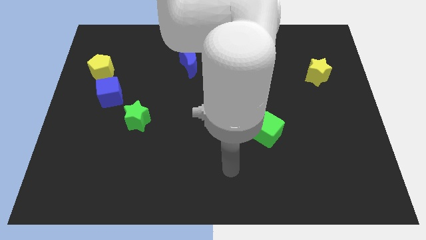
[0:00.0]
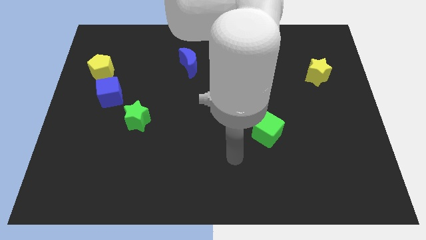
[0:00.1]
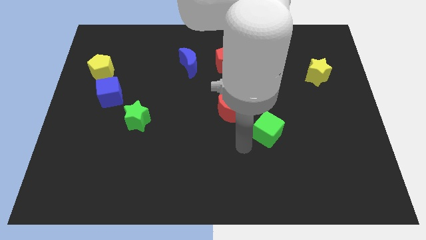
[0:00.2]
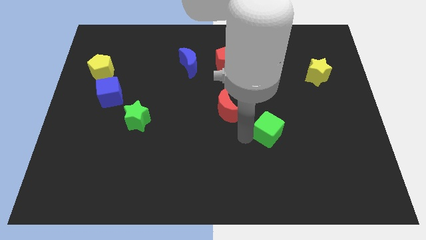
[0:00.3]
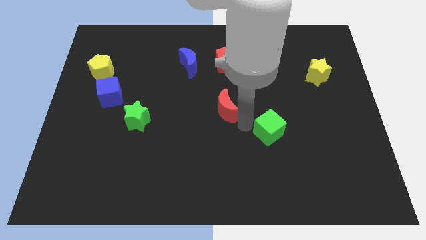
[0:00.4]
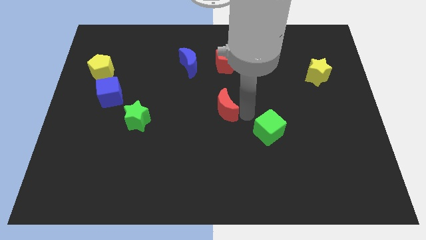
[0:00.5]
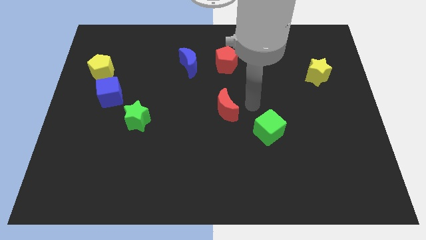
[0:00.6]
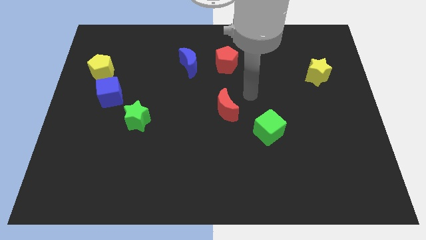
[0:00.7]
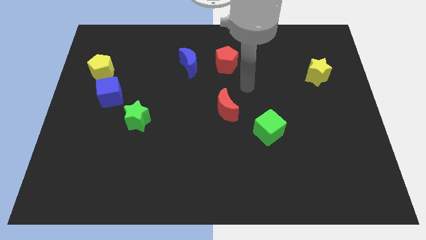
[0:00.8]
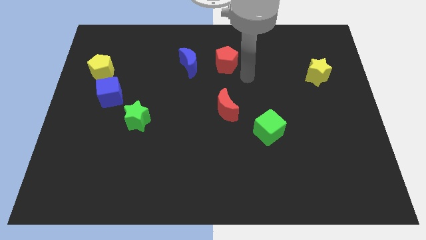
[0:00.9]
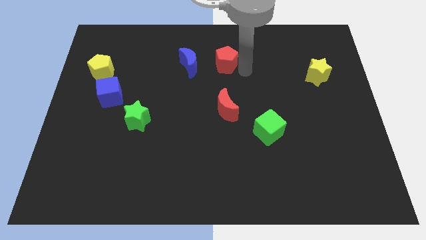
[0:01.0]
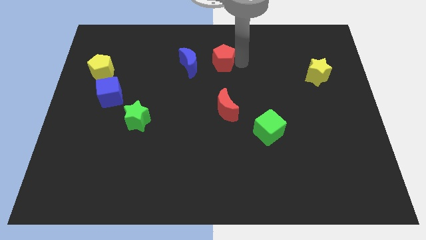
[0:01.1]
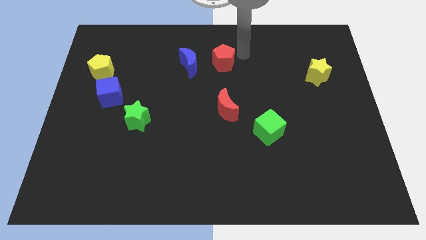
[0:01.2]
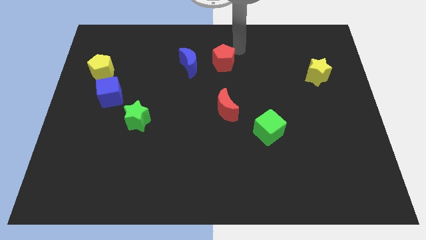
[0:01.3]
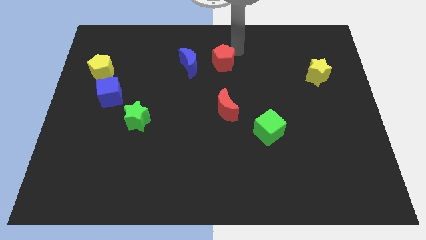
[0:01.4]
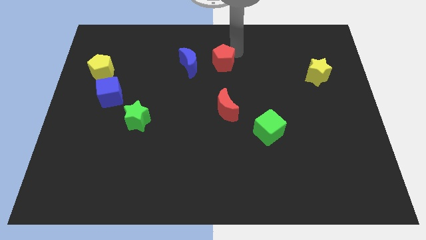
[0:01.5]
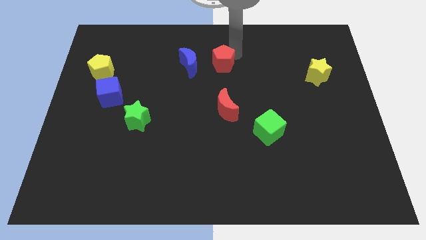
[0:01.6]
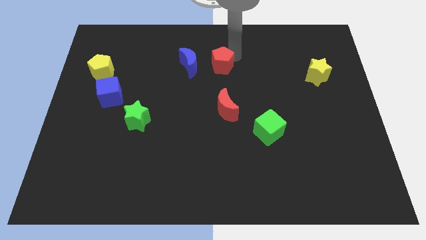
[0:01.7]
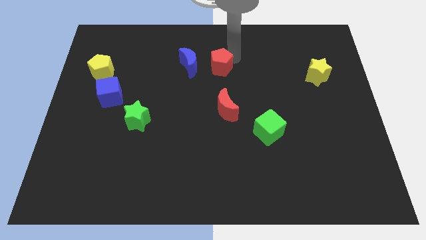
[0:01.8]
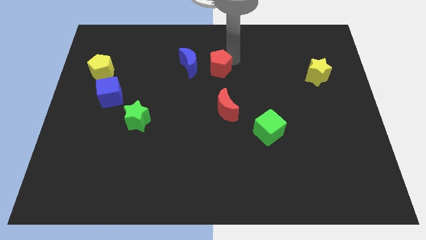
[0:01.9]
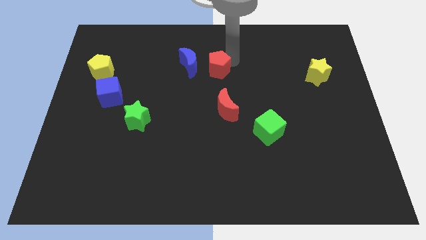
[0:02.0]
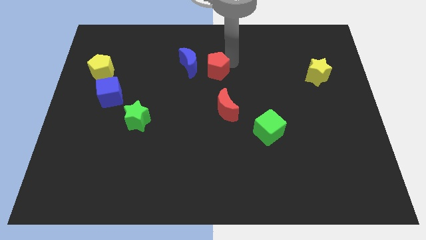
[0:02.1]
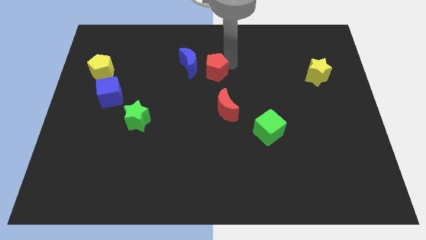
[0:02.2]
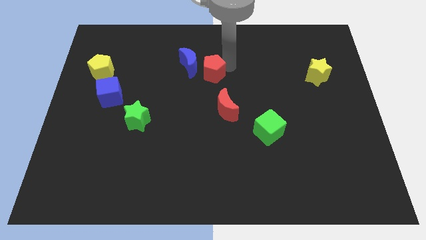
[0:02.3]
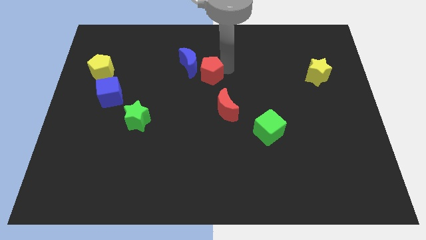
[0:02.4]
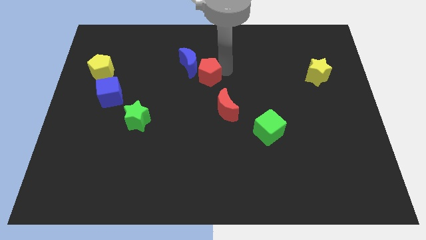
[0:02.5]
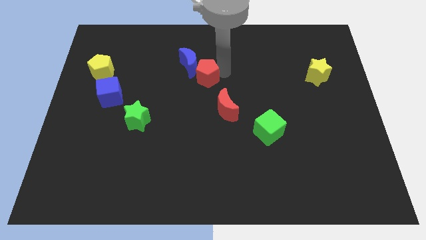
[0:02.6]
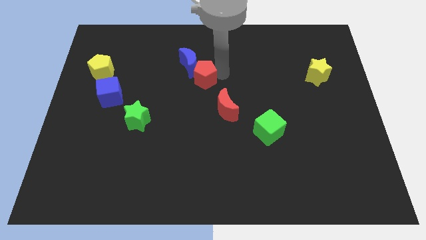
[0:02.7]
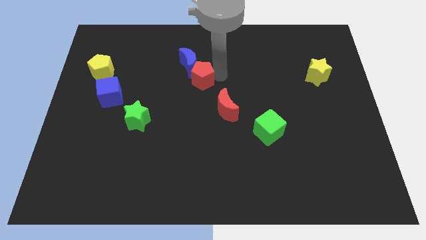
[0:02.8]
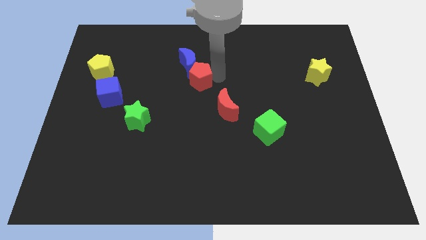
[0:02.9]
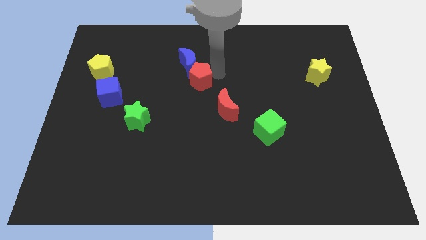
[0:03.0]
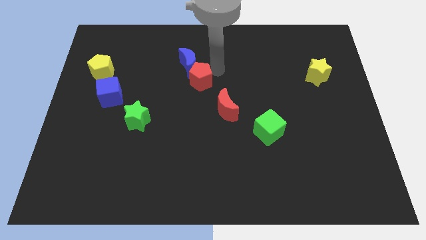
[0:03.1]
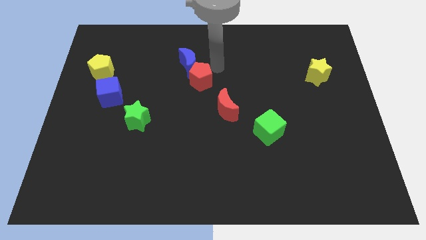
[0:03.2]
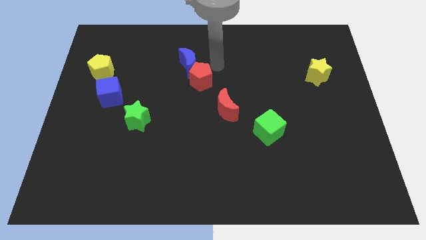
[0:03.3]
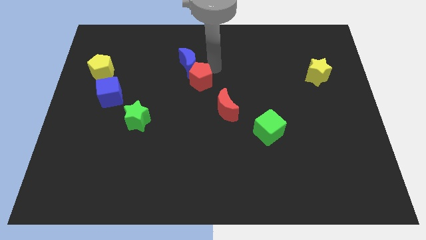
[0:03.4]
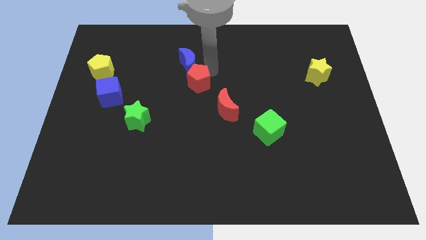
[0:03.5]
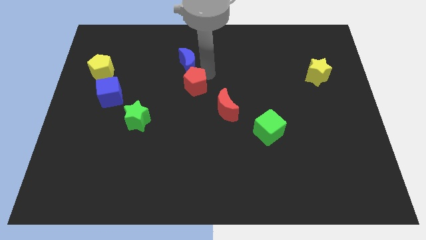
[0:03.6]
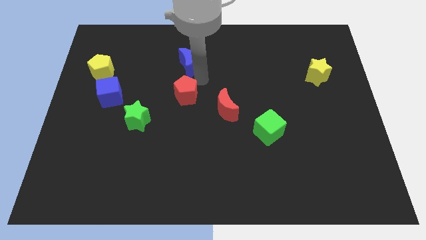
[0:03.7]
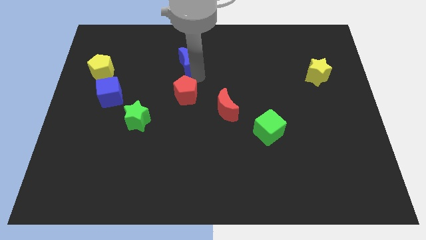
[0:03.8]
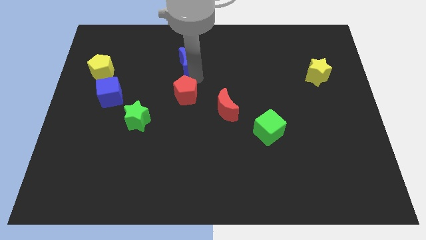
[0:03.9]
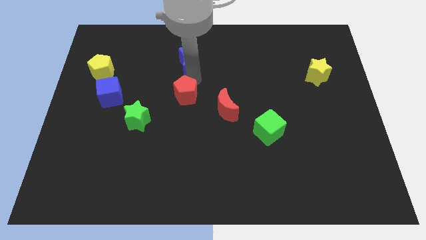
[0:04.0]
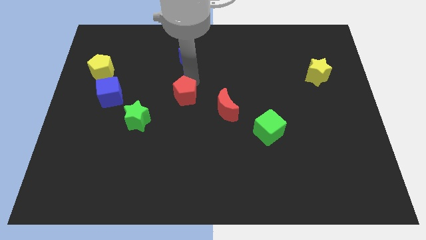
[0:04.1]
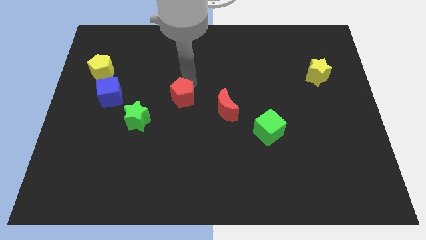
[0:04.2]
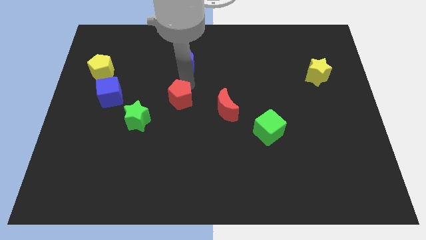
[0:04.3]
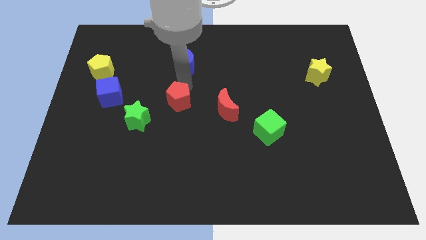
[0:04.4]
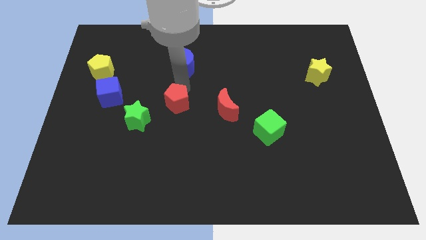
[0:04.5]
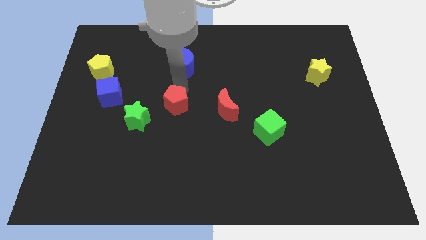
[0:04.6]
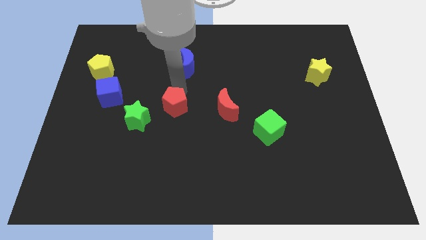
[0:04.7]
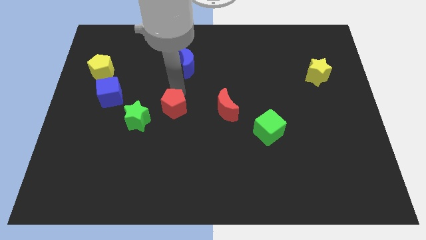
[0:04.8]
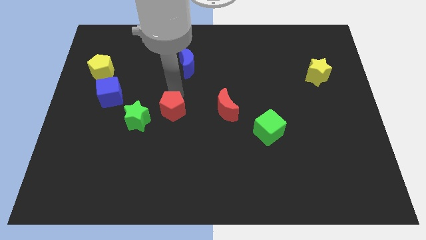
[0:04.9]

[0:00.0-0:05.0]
move the red pentagon downwards and then left

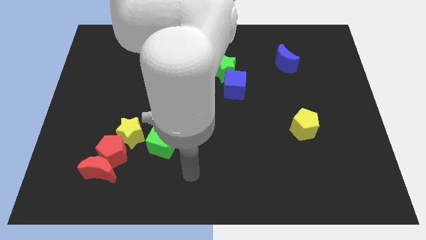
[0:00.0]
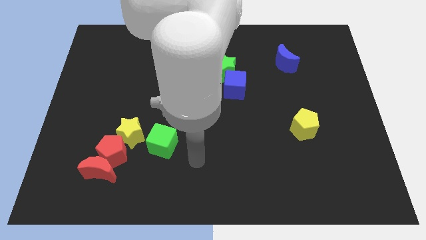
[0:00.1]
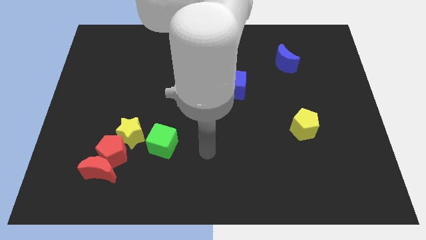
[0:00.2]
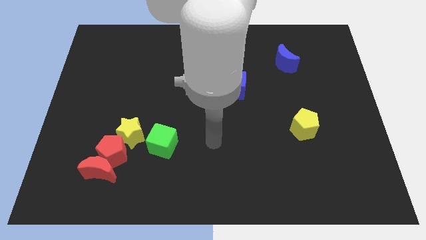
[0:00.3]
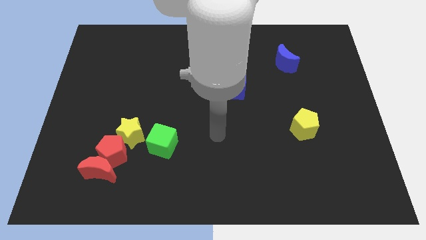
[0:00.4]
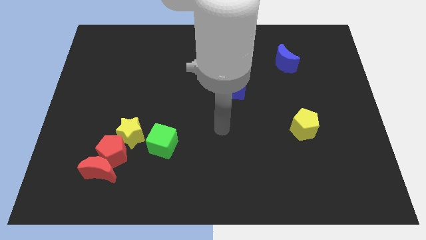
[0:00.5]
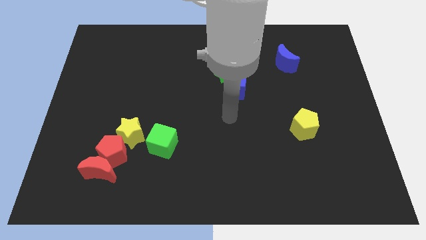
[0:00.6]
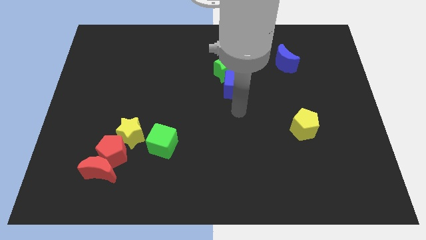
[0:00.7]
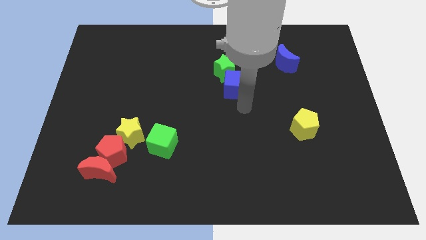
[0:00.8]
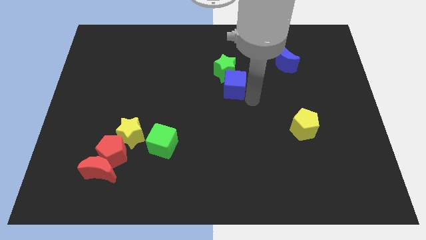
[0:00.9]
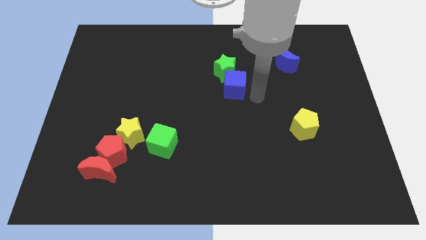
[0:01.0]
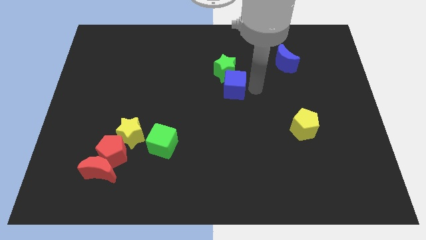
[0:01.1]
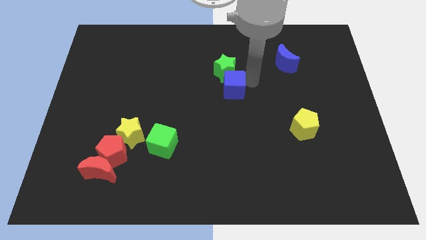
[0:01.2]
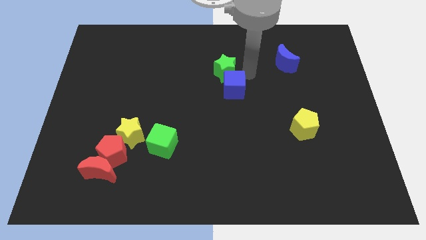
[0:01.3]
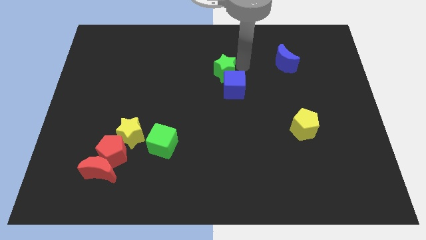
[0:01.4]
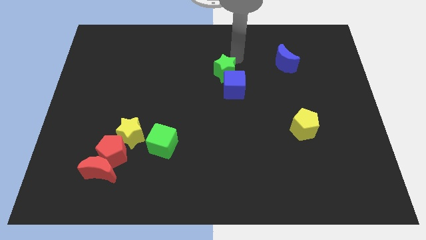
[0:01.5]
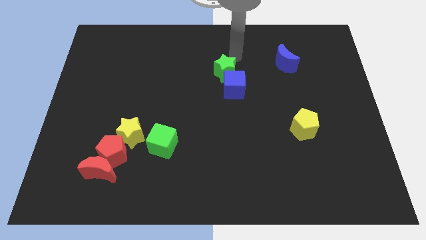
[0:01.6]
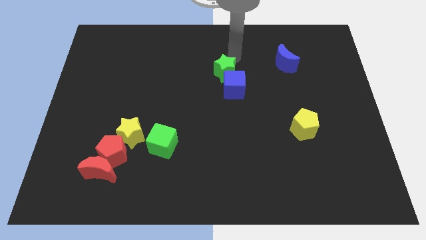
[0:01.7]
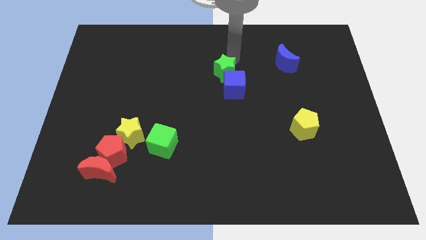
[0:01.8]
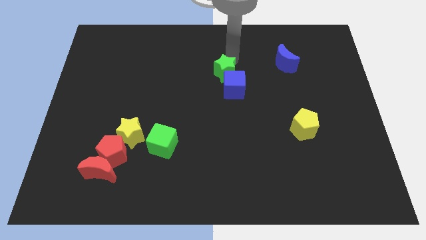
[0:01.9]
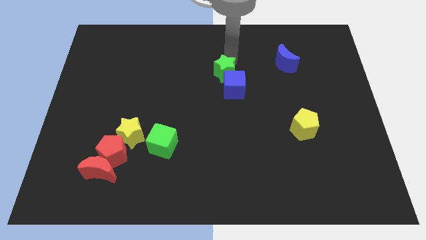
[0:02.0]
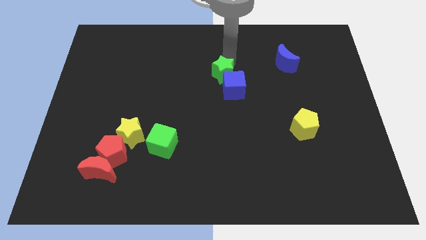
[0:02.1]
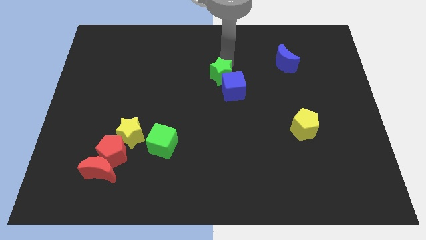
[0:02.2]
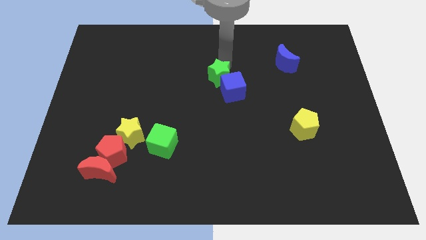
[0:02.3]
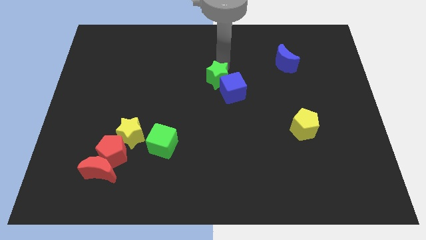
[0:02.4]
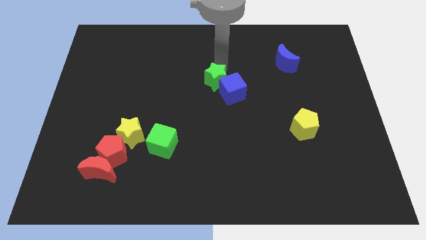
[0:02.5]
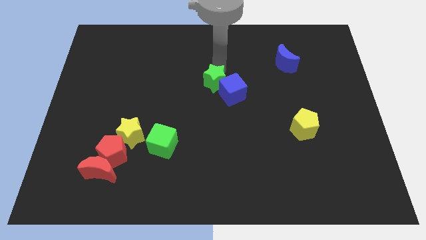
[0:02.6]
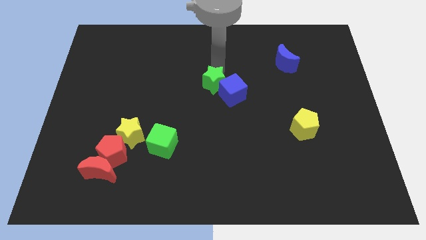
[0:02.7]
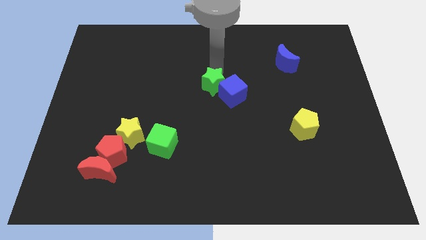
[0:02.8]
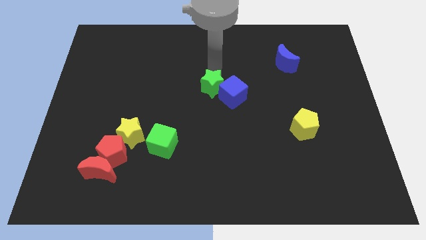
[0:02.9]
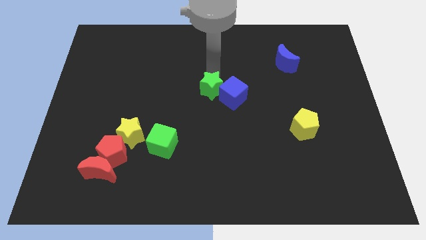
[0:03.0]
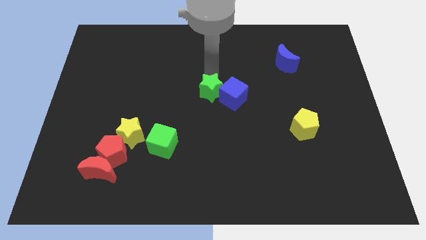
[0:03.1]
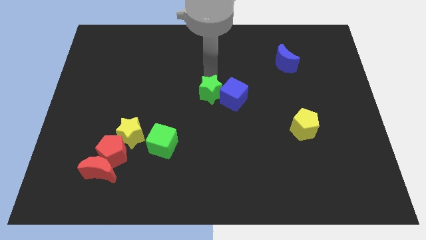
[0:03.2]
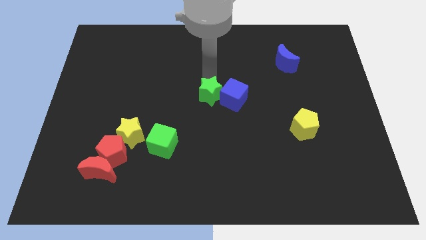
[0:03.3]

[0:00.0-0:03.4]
slightly move the green star down
